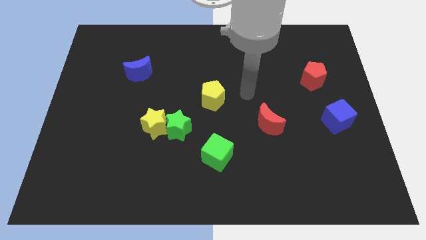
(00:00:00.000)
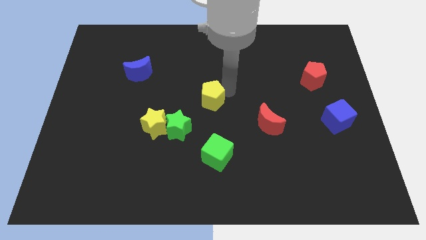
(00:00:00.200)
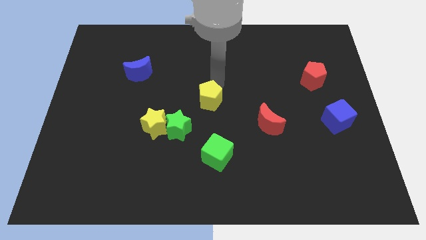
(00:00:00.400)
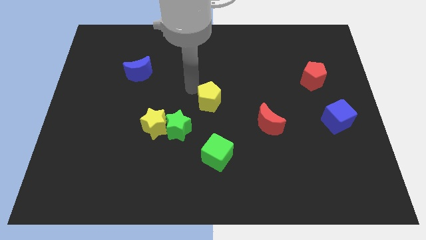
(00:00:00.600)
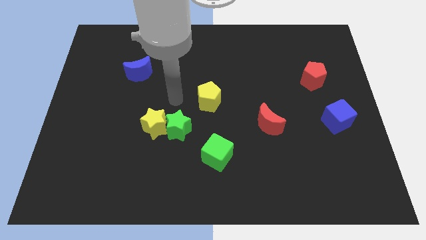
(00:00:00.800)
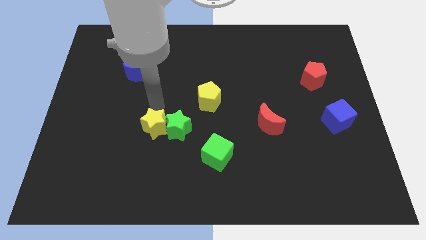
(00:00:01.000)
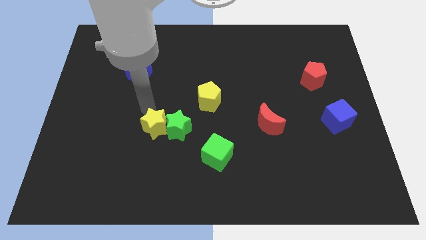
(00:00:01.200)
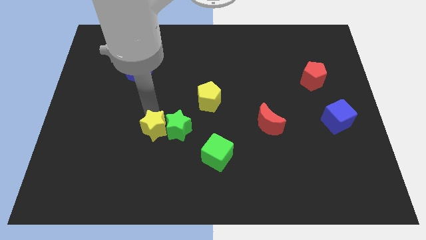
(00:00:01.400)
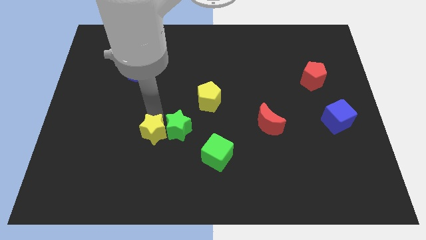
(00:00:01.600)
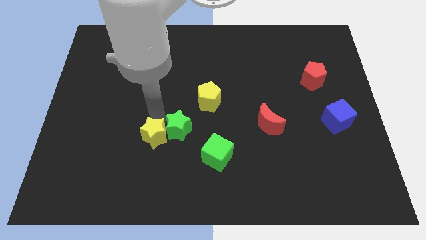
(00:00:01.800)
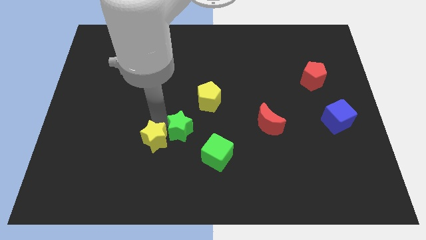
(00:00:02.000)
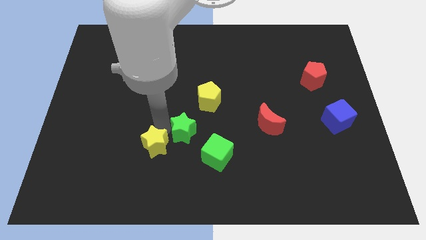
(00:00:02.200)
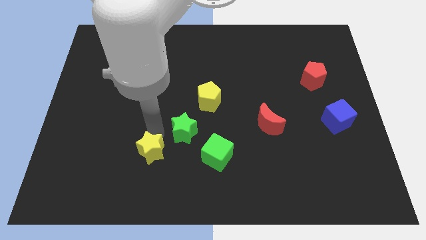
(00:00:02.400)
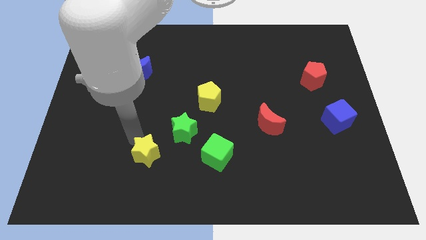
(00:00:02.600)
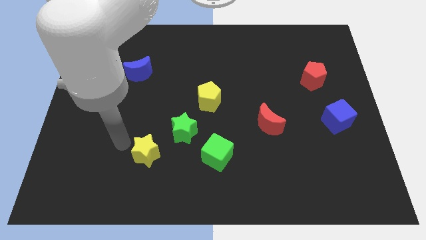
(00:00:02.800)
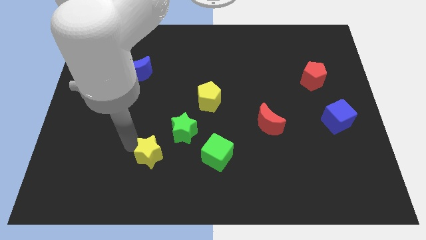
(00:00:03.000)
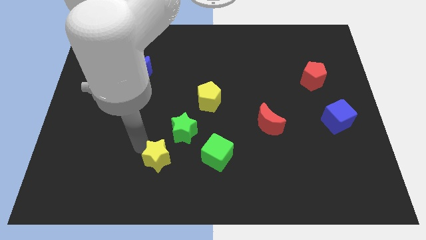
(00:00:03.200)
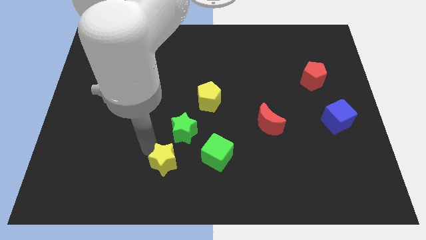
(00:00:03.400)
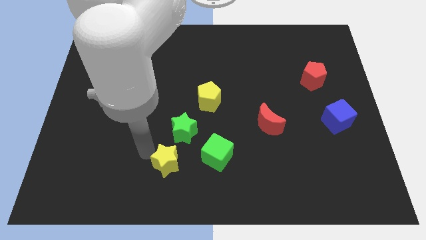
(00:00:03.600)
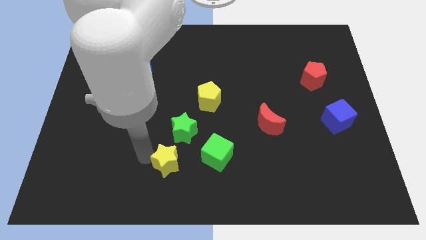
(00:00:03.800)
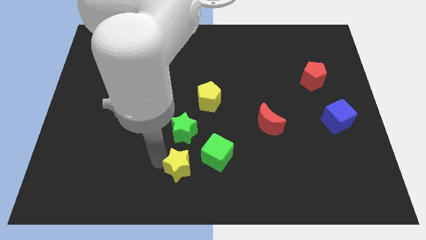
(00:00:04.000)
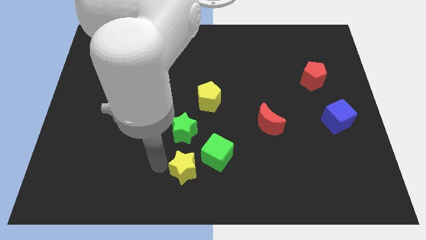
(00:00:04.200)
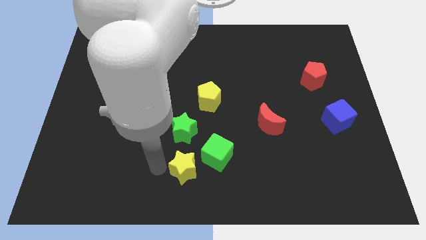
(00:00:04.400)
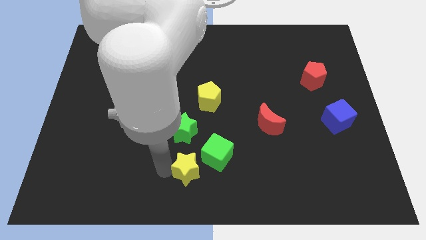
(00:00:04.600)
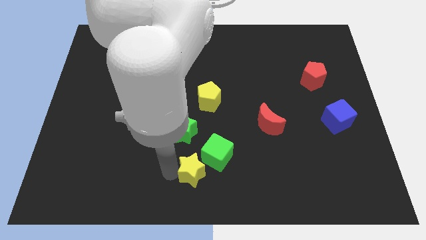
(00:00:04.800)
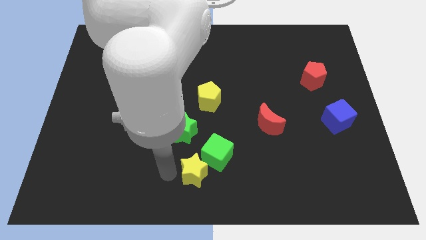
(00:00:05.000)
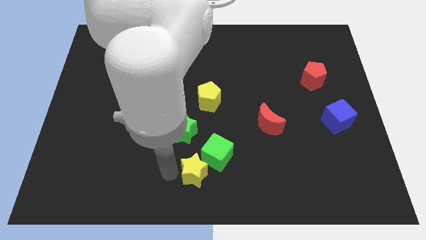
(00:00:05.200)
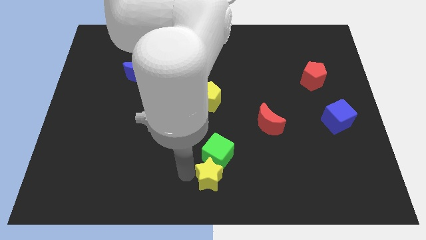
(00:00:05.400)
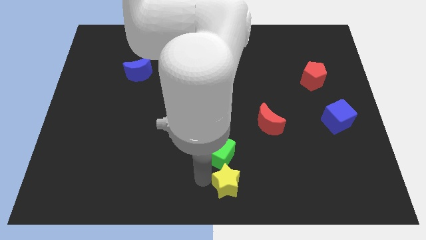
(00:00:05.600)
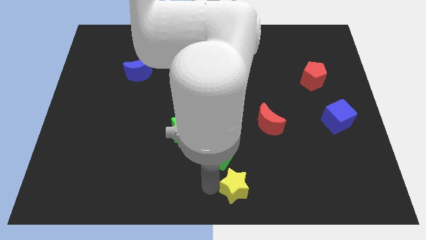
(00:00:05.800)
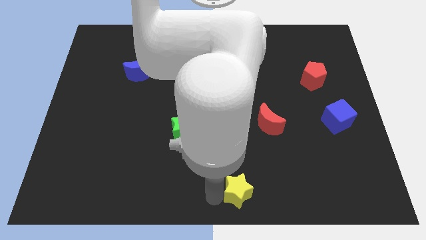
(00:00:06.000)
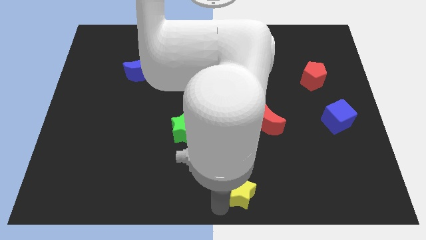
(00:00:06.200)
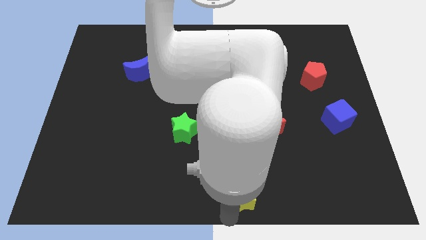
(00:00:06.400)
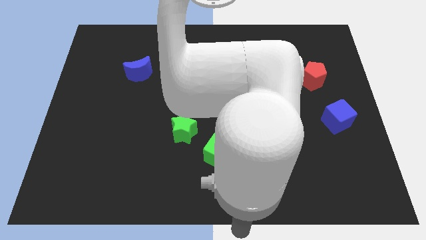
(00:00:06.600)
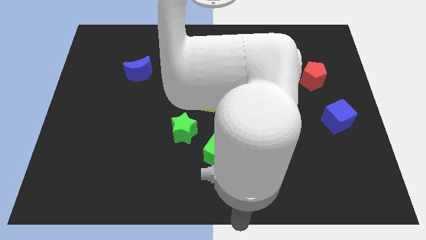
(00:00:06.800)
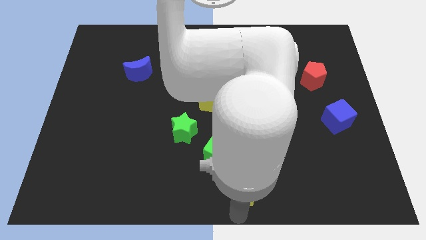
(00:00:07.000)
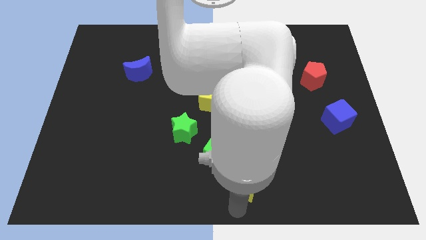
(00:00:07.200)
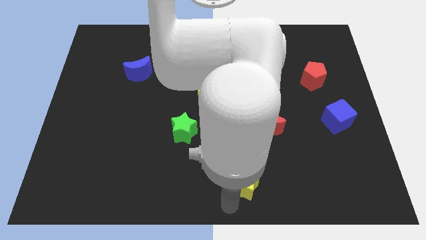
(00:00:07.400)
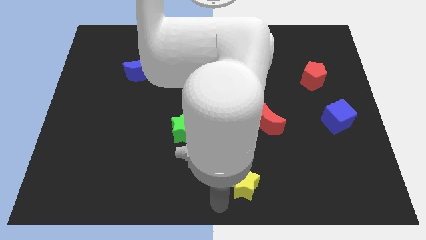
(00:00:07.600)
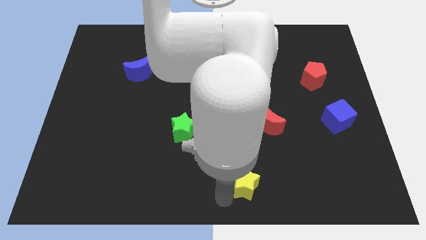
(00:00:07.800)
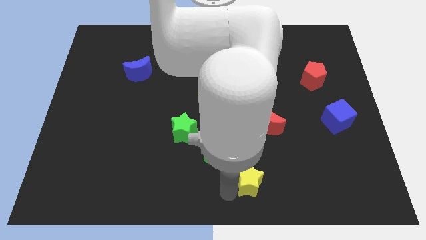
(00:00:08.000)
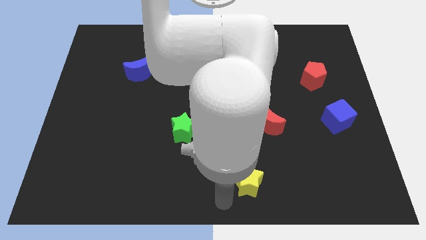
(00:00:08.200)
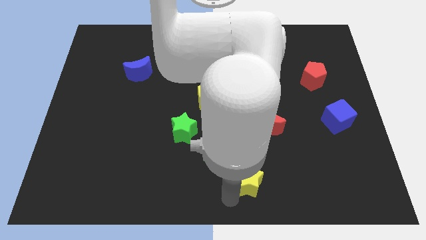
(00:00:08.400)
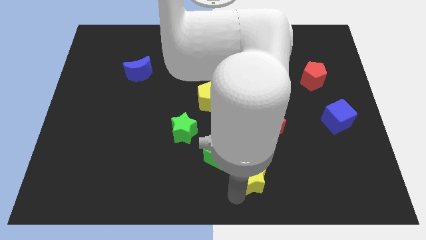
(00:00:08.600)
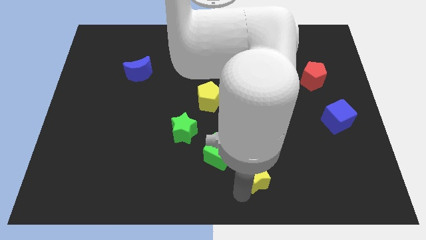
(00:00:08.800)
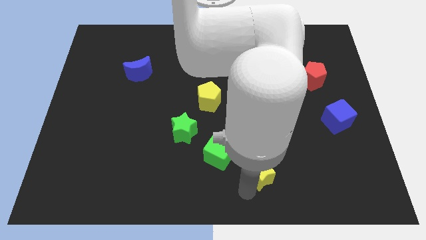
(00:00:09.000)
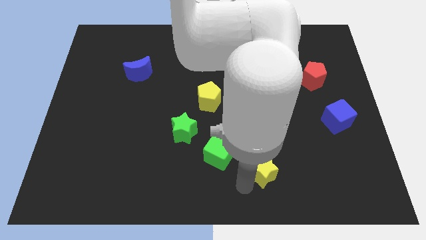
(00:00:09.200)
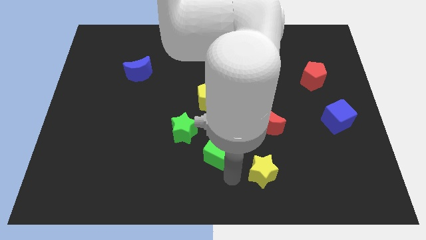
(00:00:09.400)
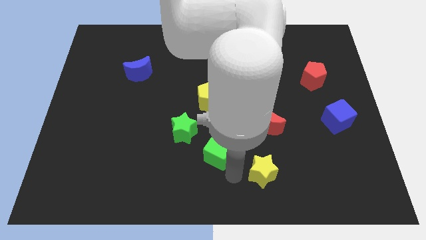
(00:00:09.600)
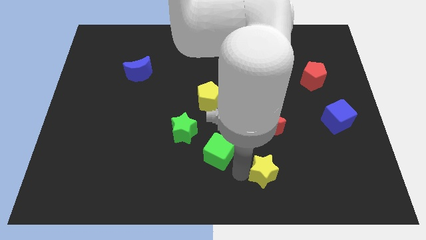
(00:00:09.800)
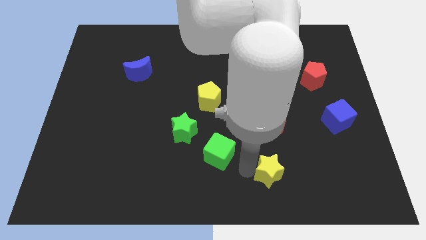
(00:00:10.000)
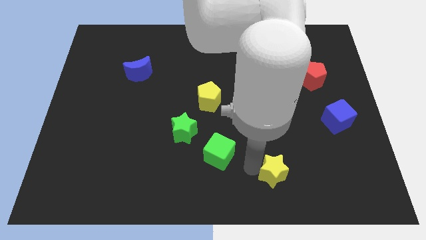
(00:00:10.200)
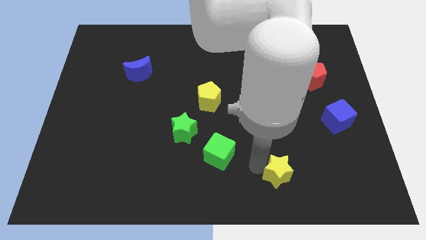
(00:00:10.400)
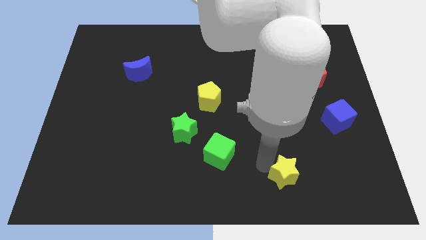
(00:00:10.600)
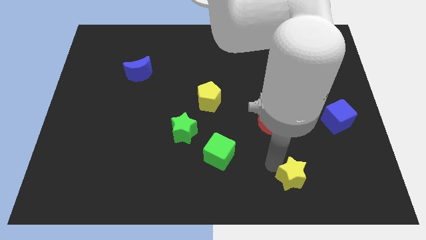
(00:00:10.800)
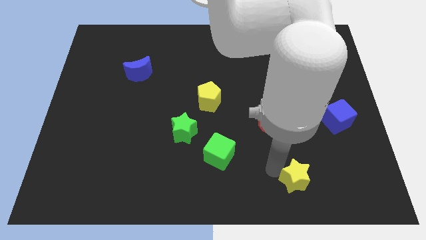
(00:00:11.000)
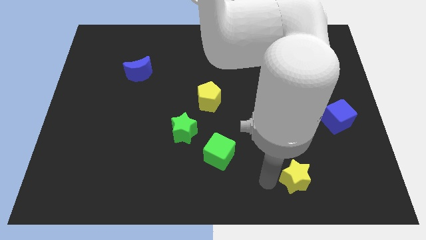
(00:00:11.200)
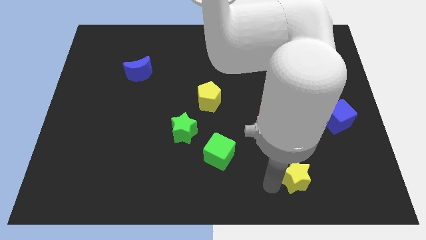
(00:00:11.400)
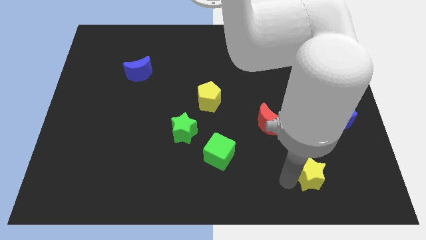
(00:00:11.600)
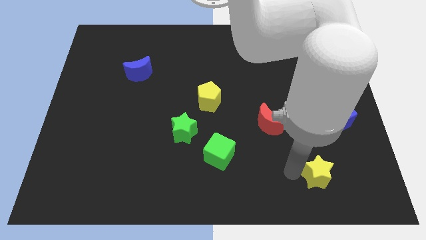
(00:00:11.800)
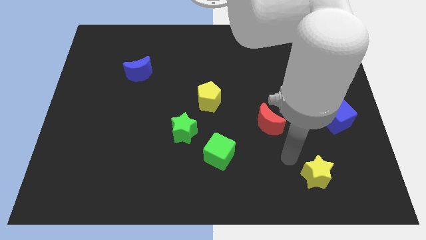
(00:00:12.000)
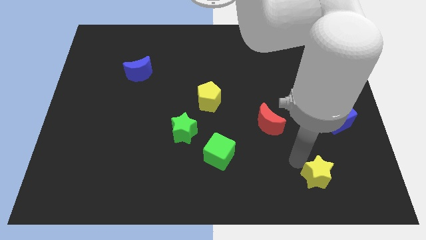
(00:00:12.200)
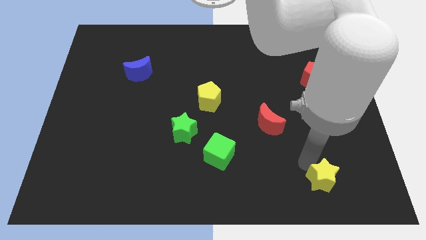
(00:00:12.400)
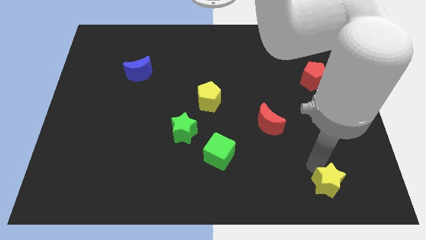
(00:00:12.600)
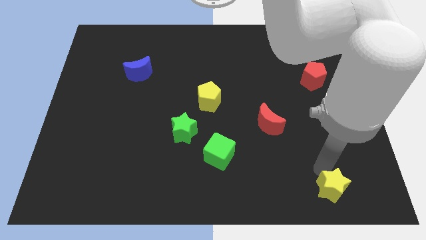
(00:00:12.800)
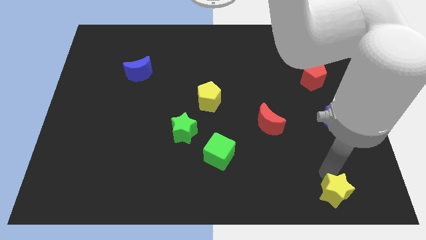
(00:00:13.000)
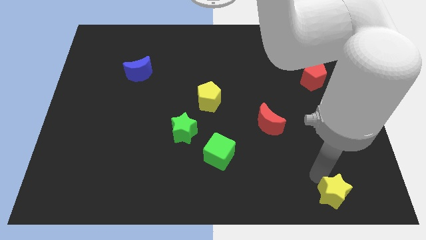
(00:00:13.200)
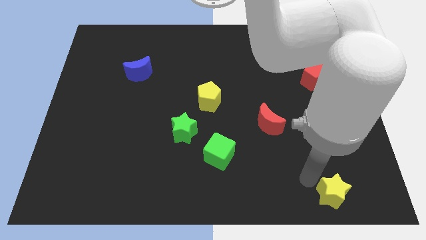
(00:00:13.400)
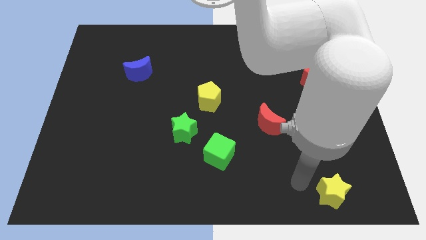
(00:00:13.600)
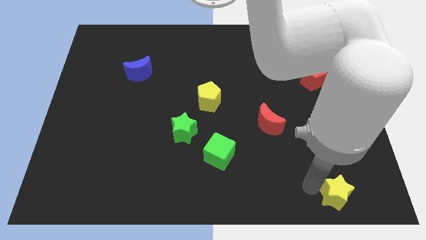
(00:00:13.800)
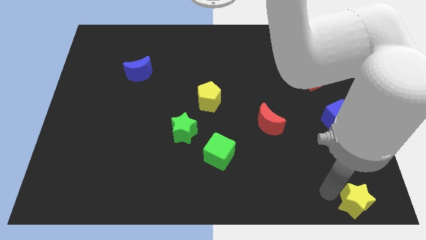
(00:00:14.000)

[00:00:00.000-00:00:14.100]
slide the yellow star to the lower right corner
